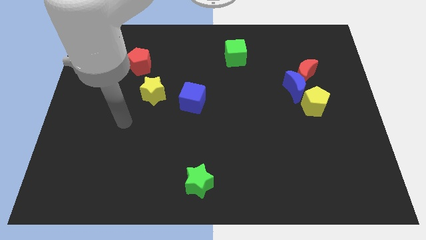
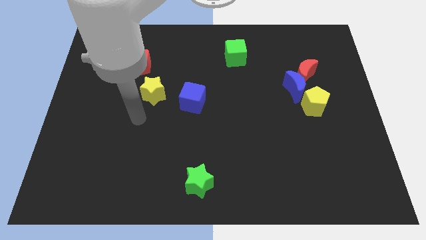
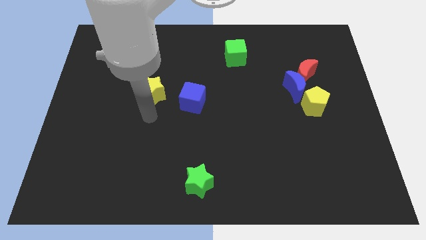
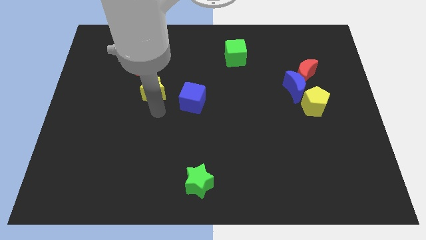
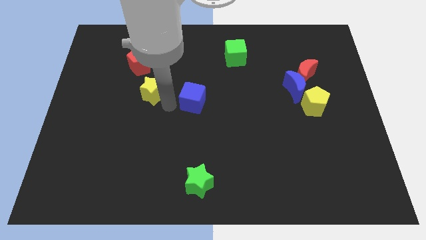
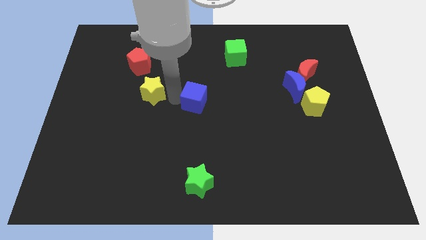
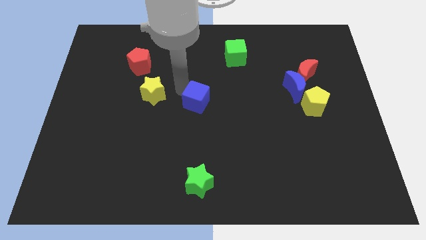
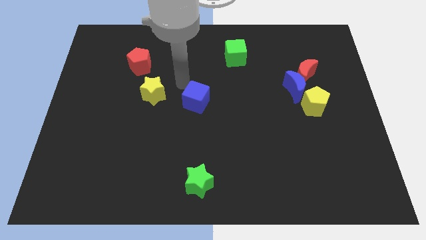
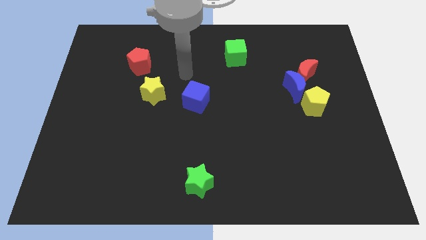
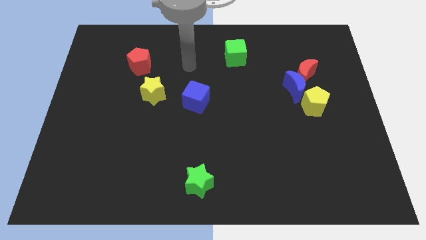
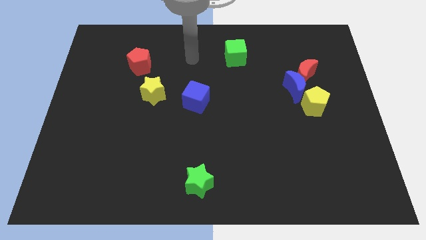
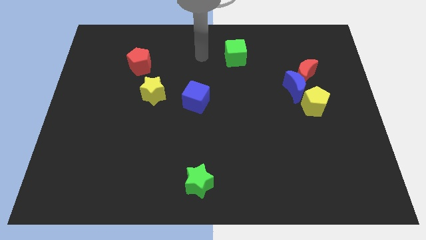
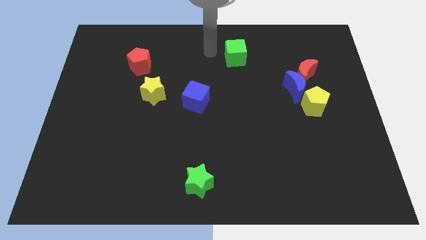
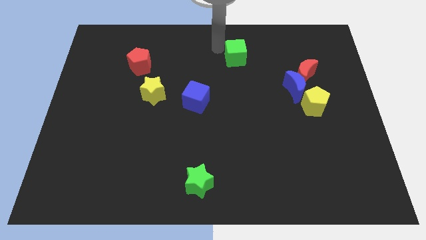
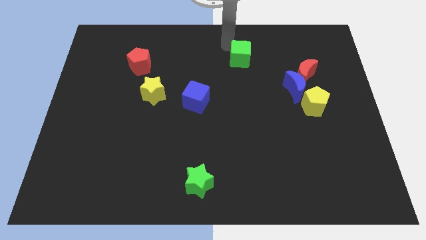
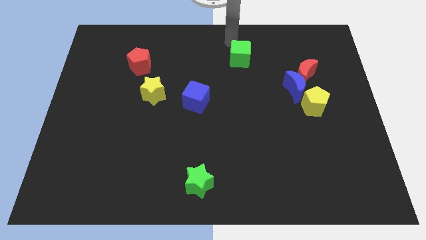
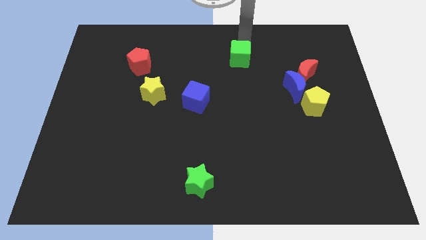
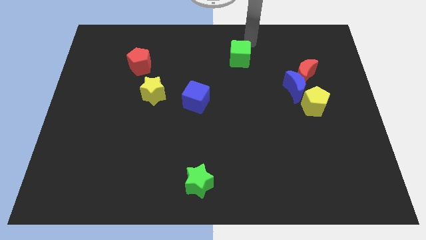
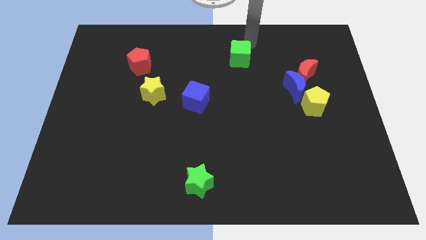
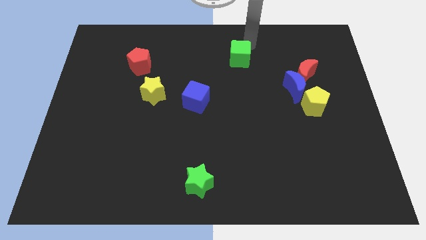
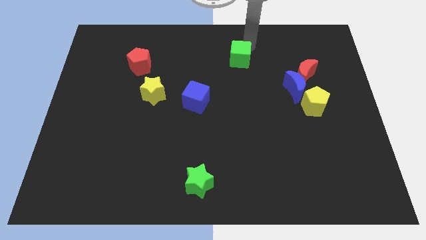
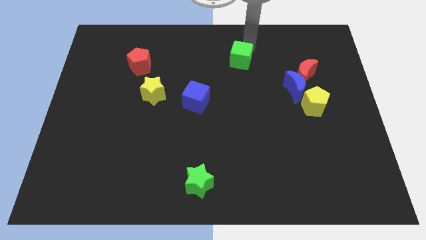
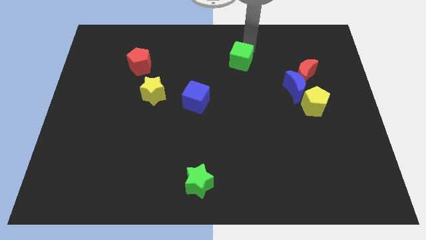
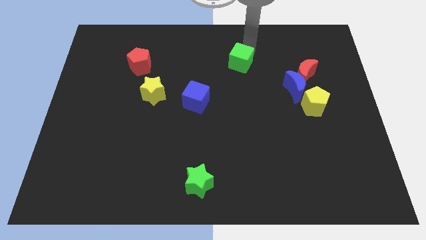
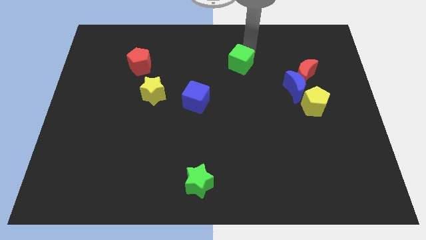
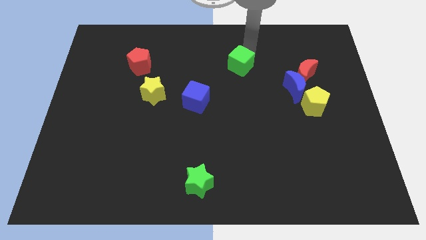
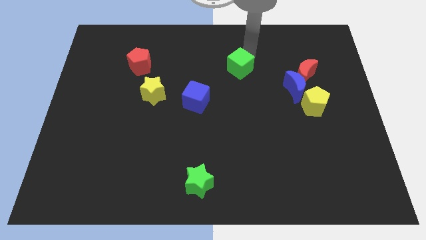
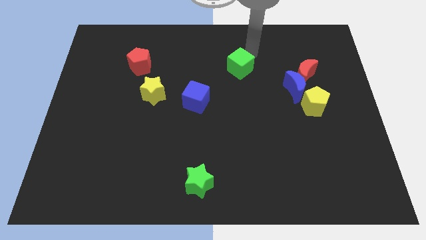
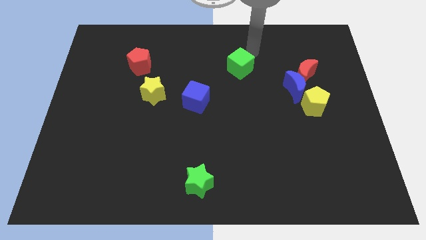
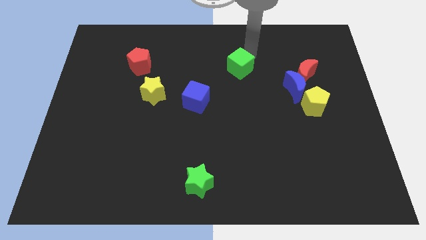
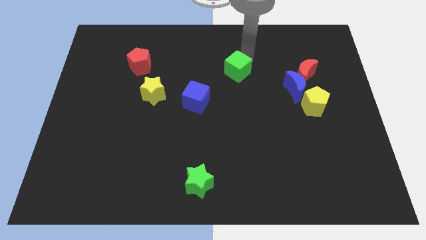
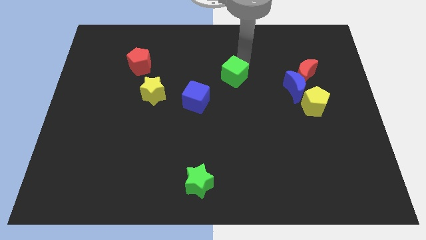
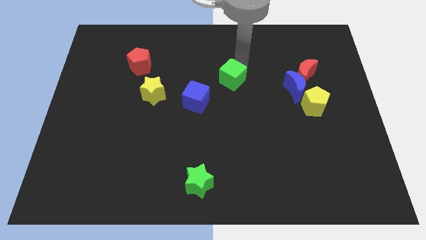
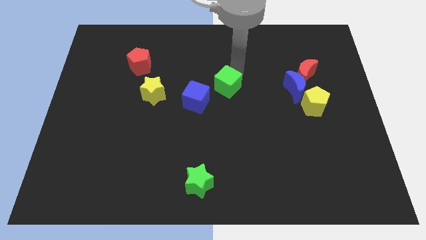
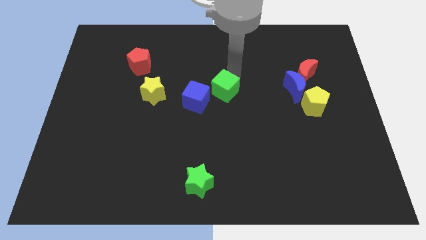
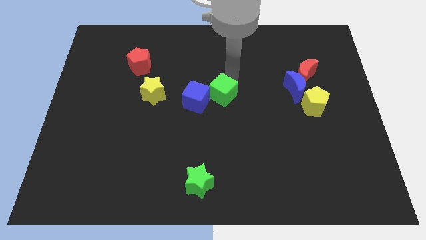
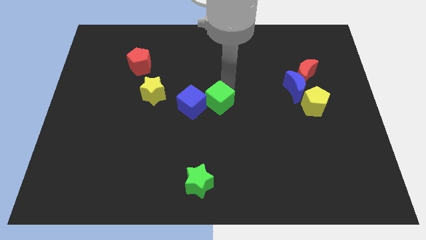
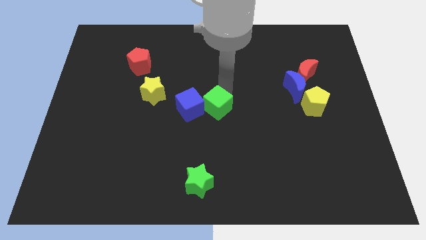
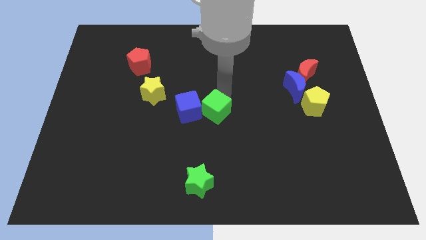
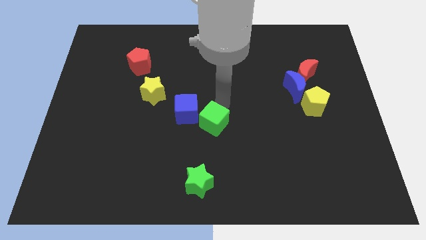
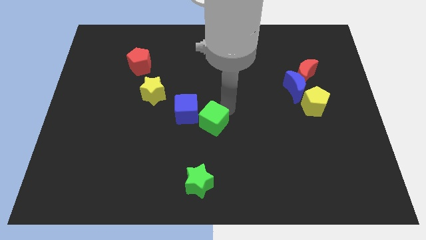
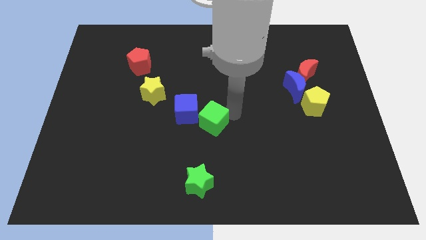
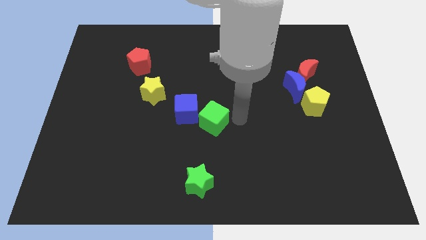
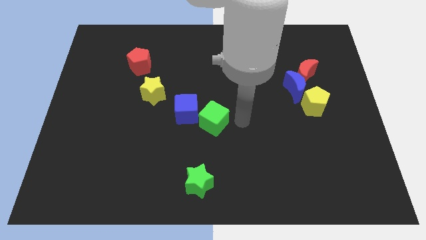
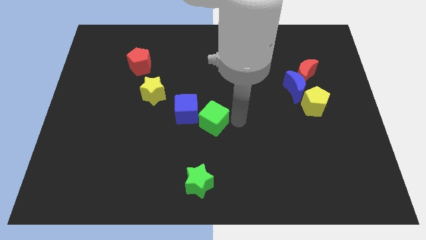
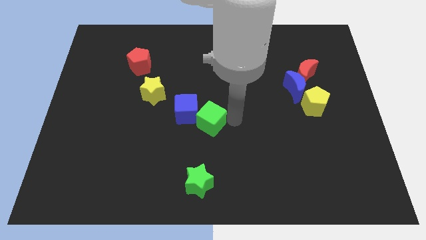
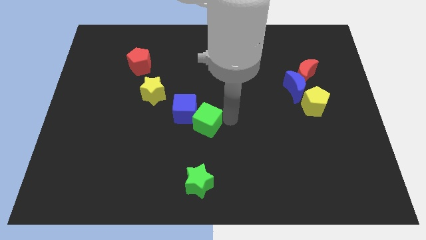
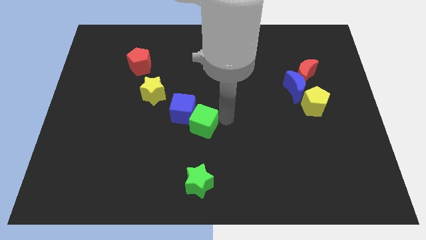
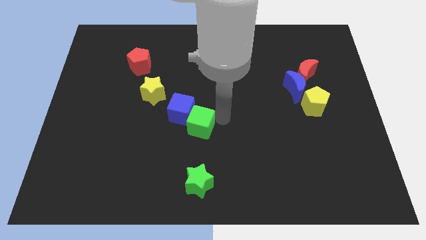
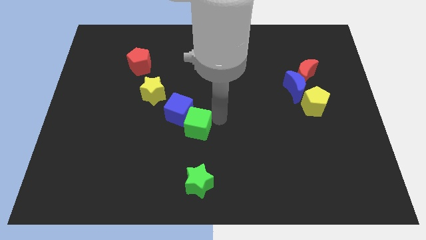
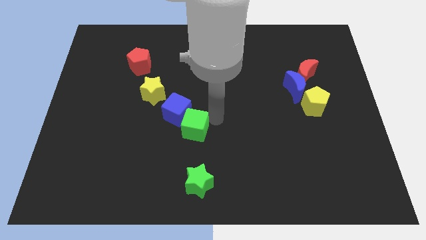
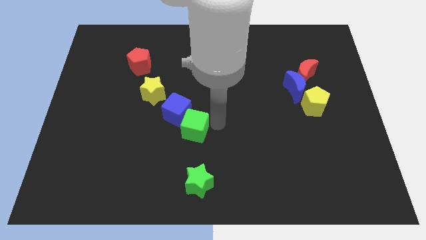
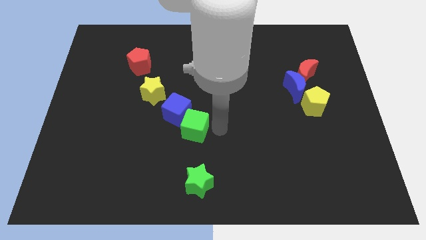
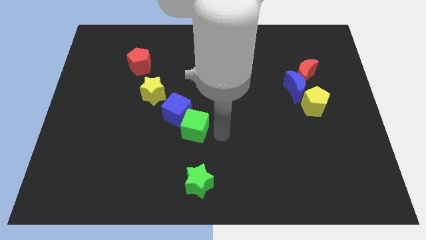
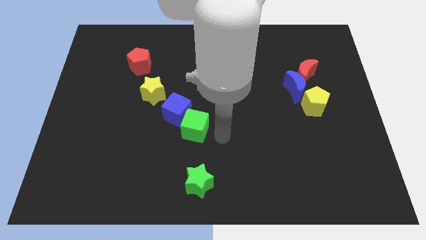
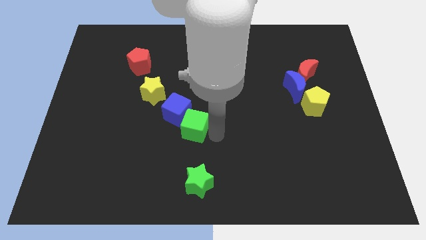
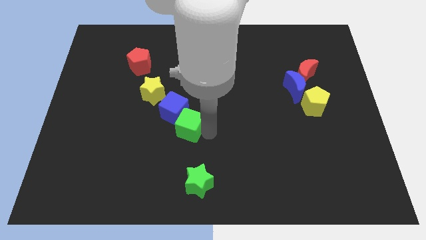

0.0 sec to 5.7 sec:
move the green cube downwards and left

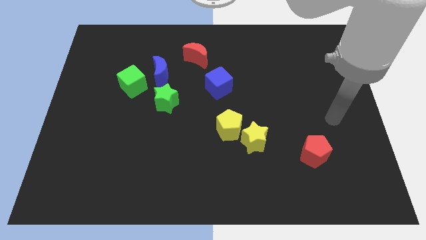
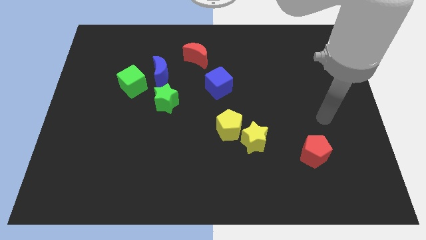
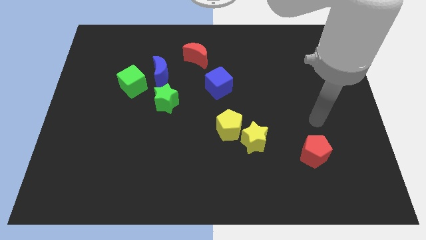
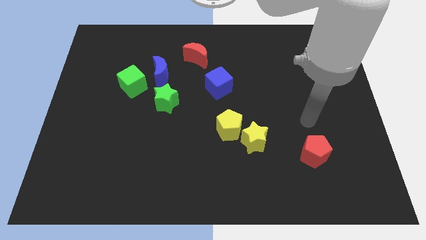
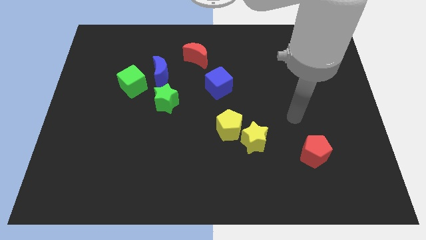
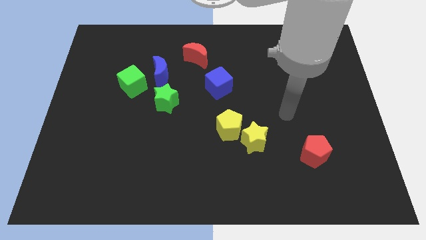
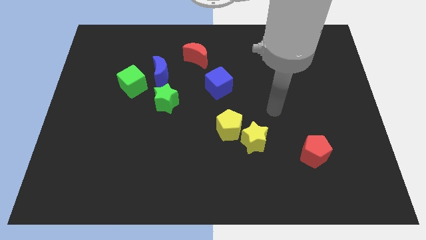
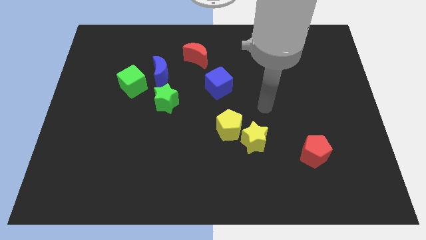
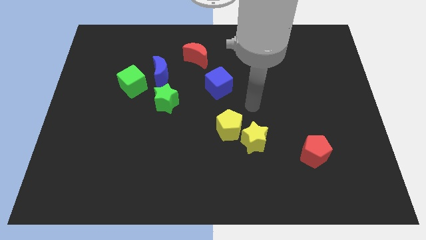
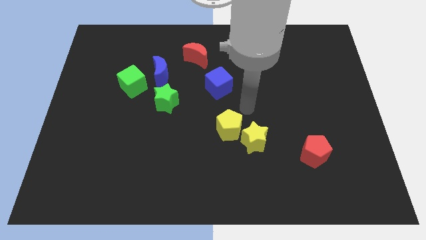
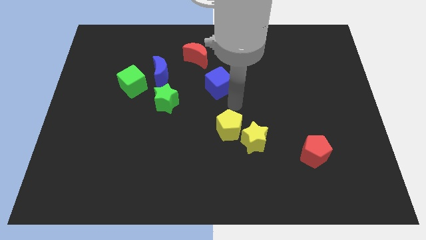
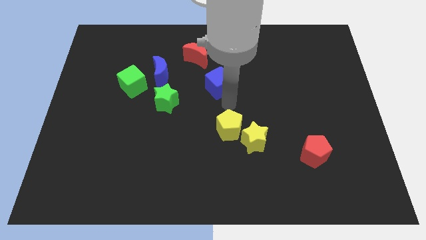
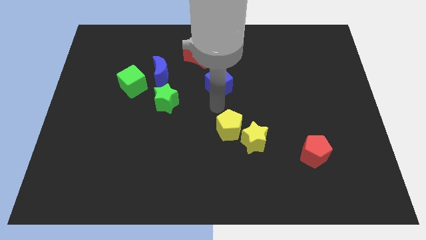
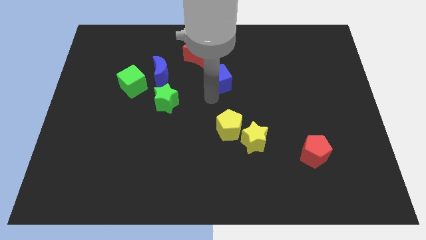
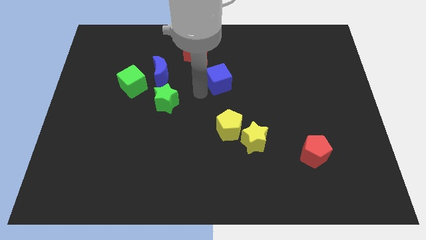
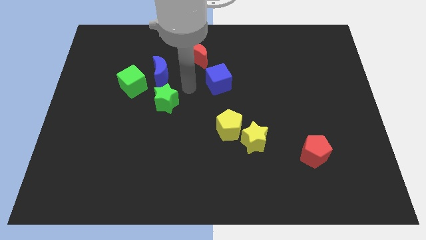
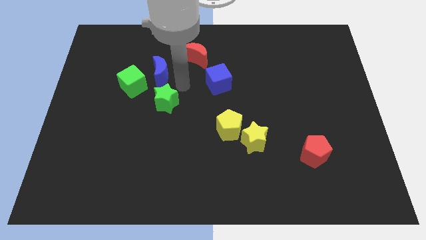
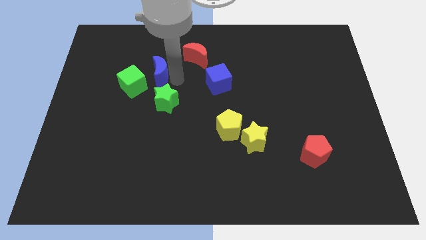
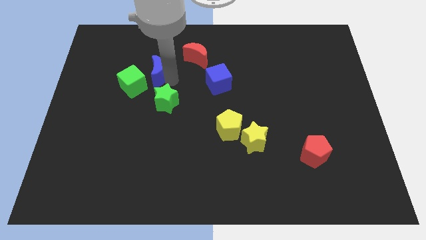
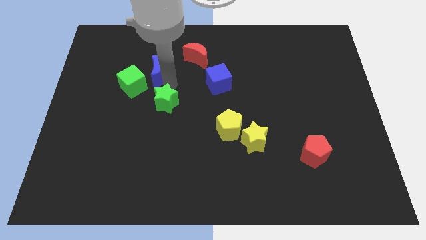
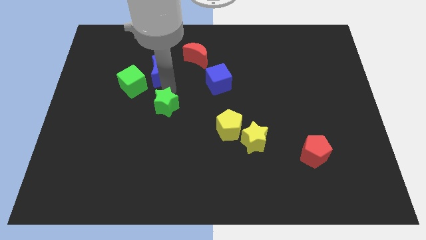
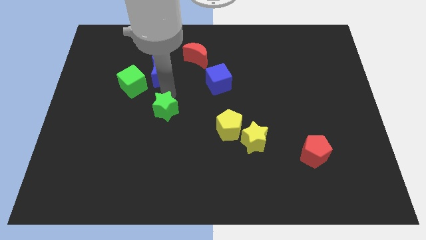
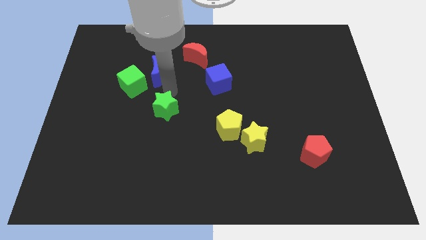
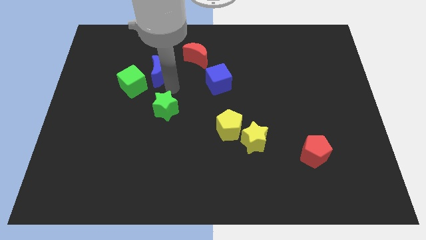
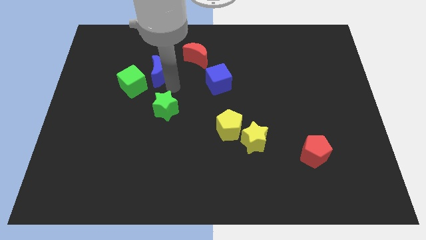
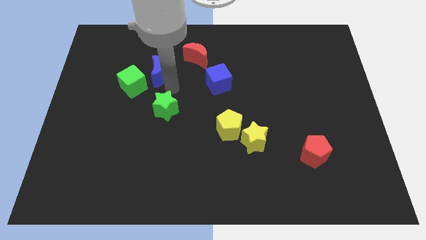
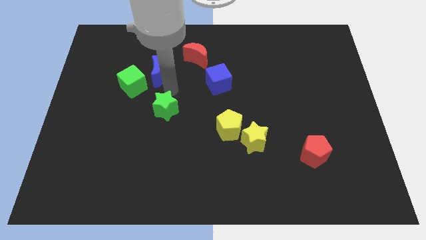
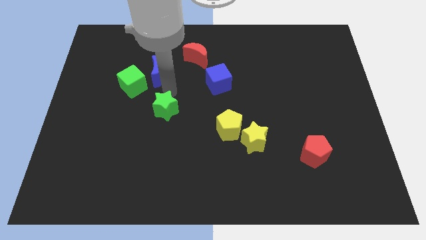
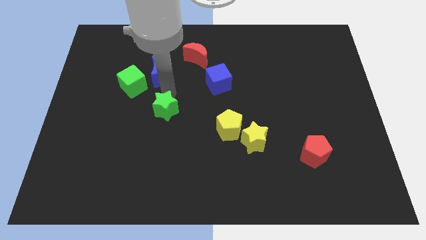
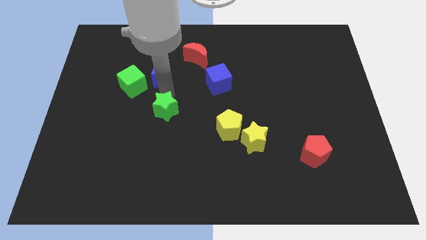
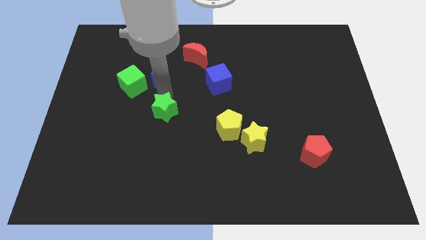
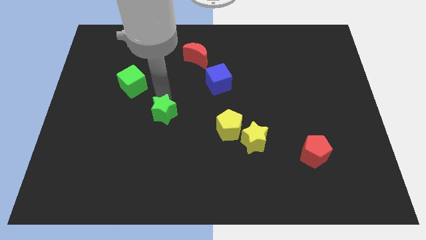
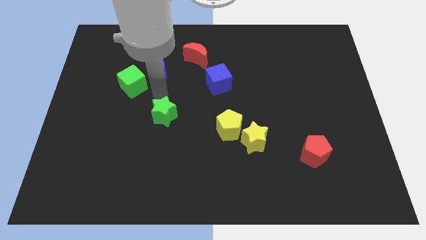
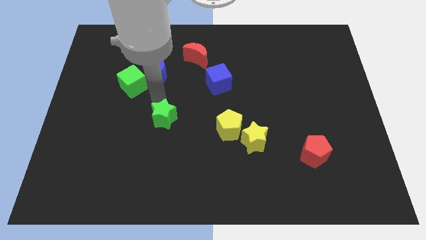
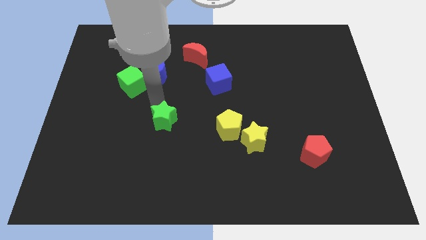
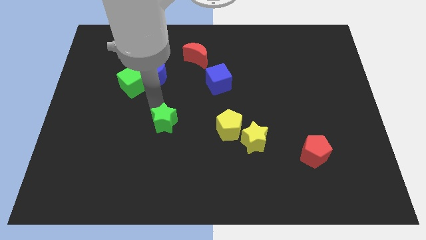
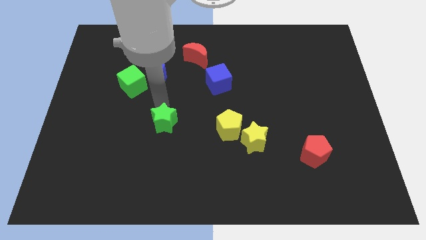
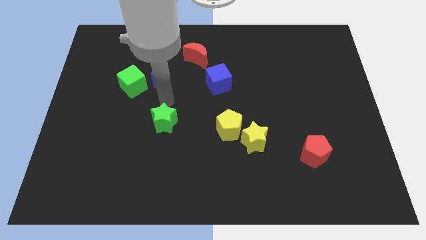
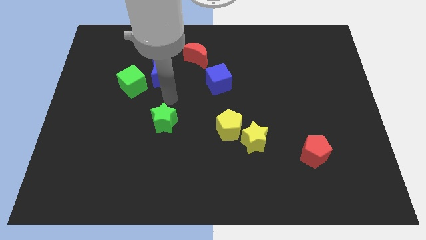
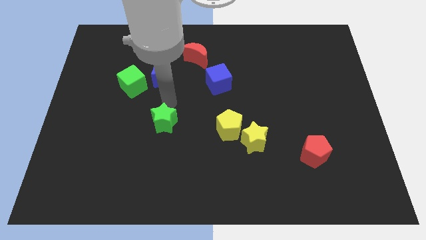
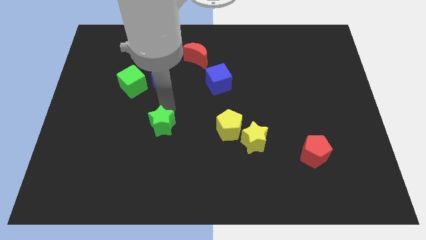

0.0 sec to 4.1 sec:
slightly push the green star down
